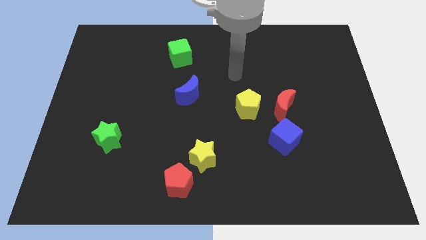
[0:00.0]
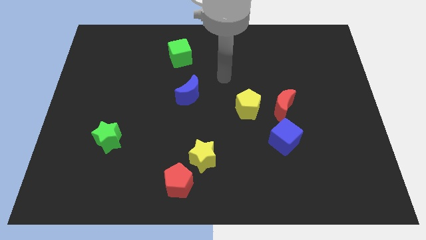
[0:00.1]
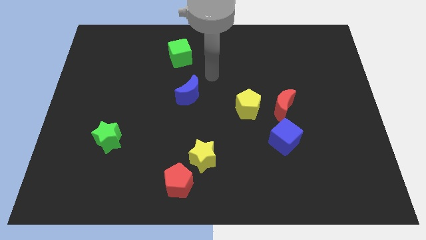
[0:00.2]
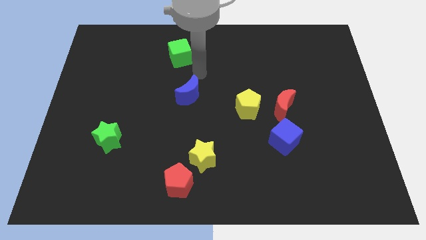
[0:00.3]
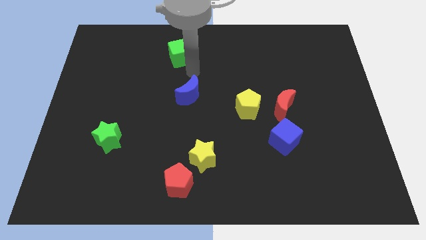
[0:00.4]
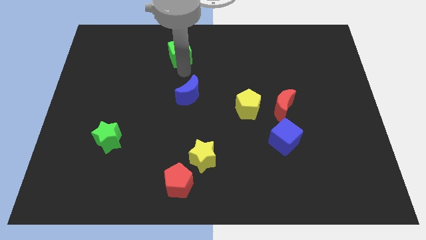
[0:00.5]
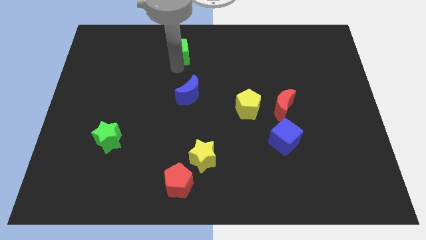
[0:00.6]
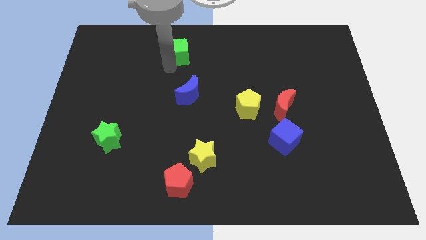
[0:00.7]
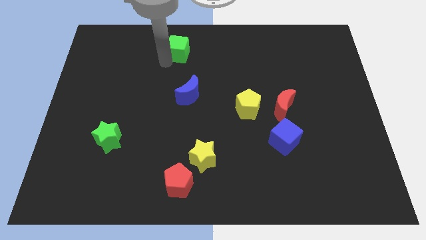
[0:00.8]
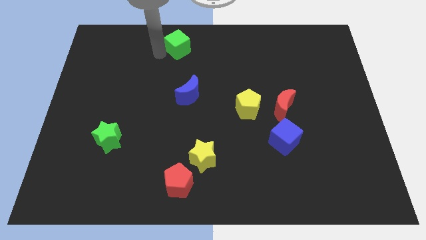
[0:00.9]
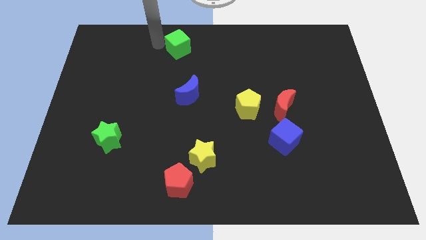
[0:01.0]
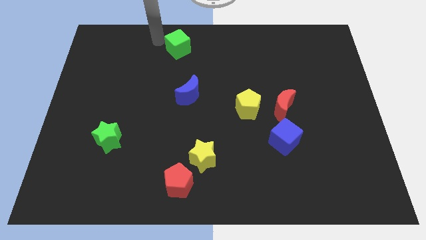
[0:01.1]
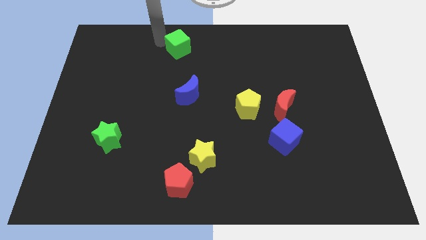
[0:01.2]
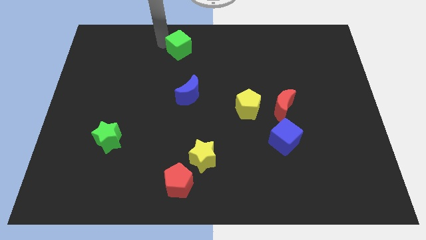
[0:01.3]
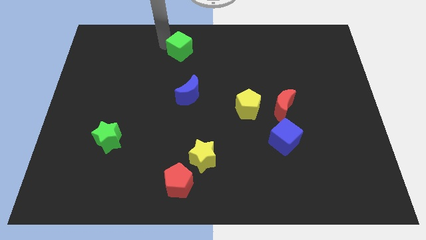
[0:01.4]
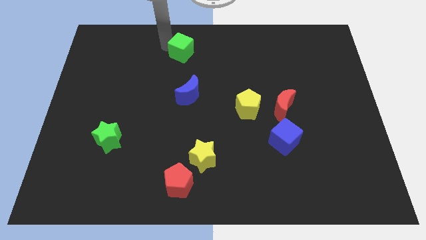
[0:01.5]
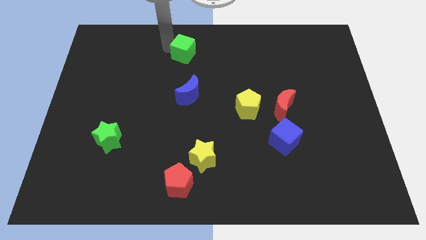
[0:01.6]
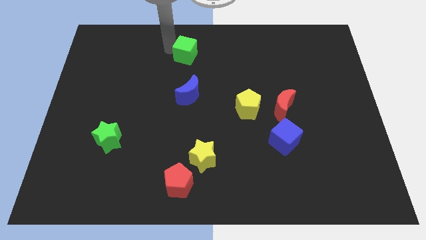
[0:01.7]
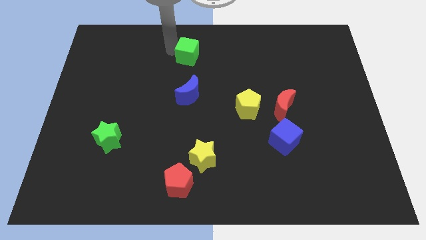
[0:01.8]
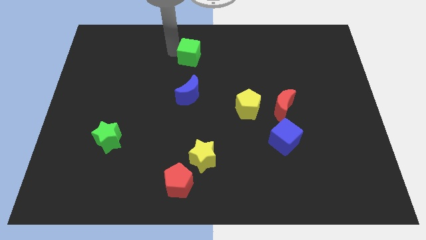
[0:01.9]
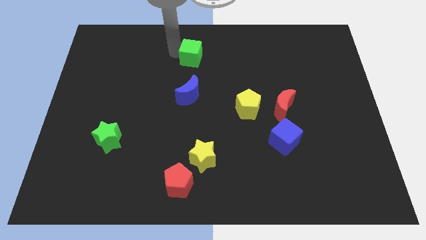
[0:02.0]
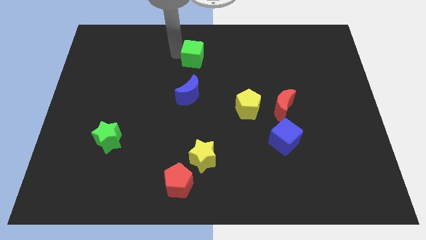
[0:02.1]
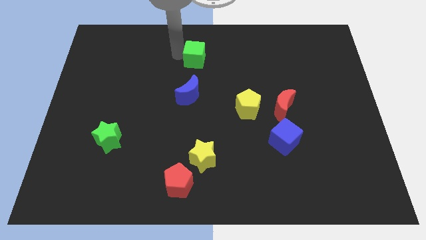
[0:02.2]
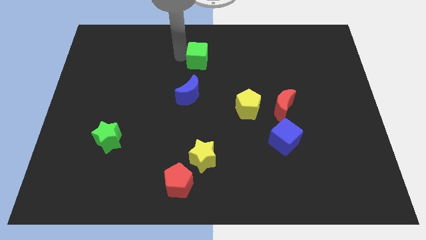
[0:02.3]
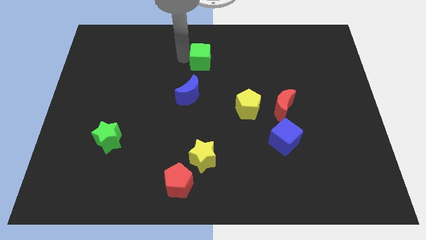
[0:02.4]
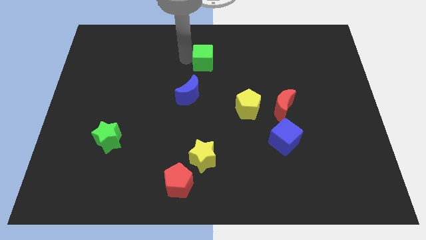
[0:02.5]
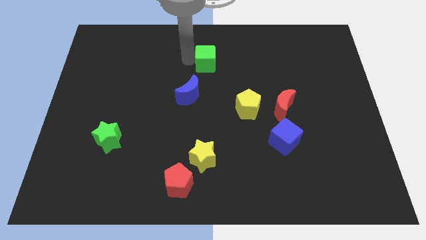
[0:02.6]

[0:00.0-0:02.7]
push the green cube a little right

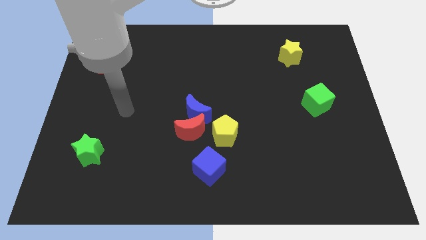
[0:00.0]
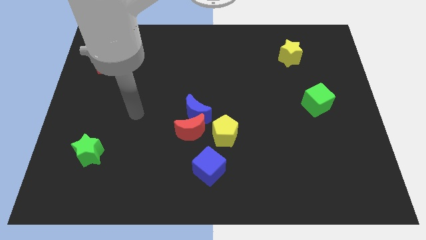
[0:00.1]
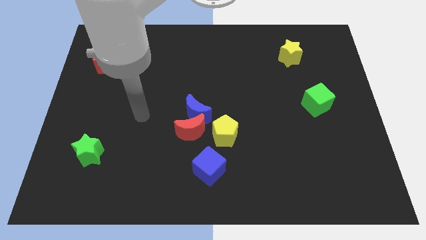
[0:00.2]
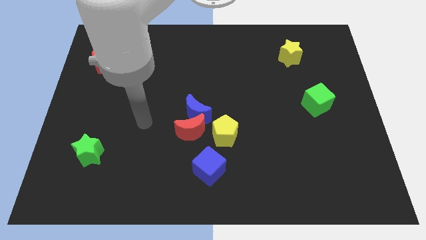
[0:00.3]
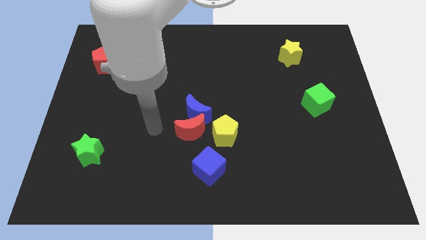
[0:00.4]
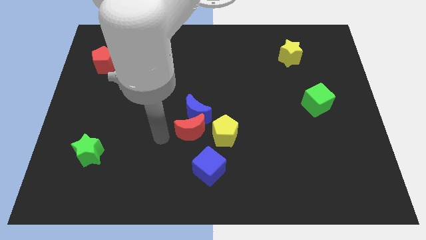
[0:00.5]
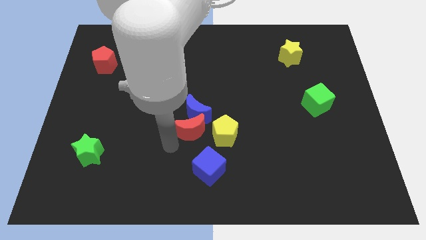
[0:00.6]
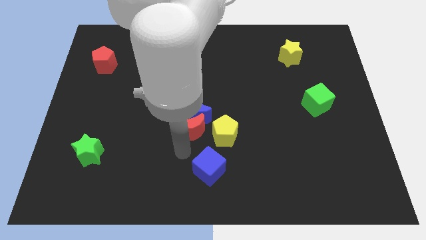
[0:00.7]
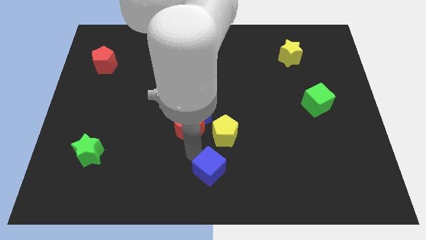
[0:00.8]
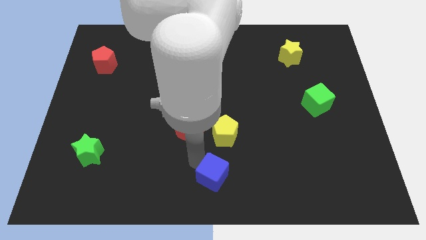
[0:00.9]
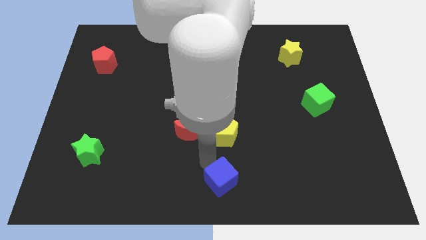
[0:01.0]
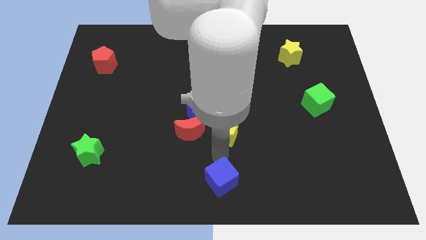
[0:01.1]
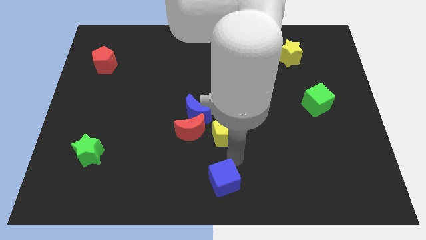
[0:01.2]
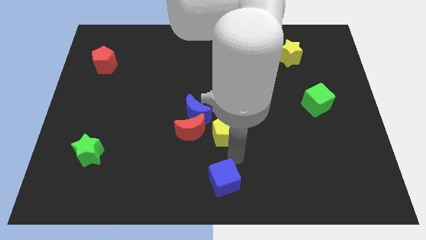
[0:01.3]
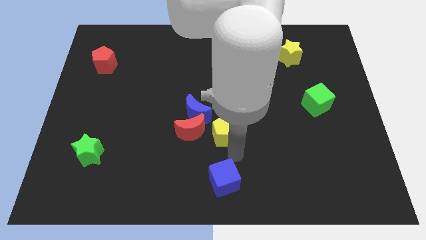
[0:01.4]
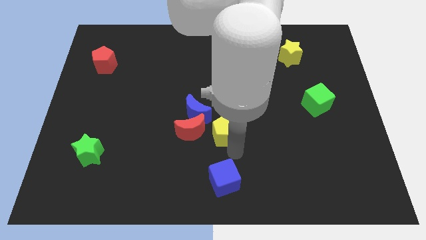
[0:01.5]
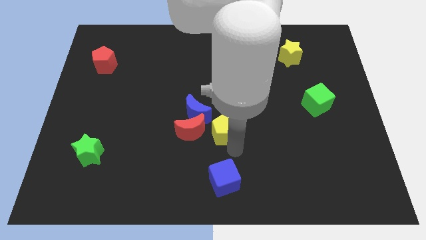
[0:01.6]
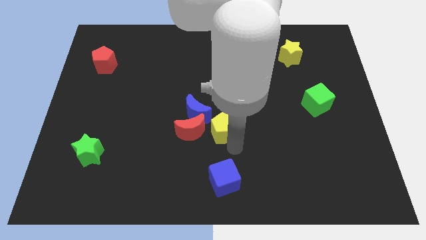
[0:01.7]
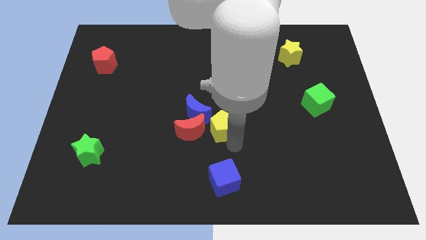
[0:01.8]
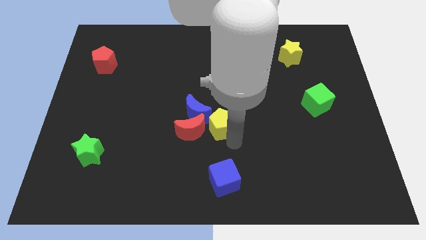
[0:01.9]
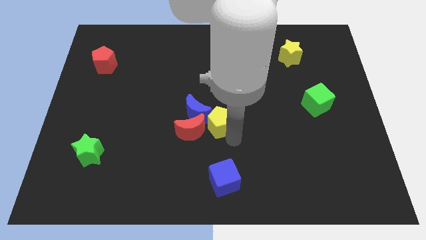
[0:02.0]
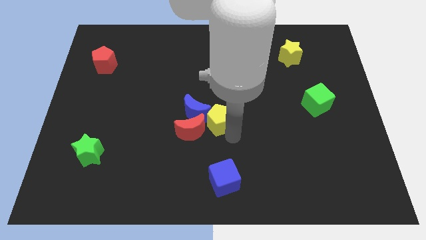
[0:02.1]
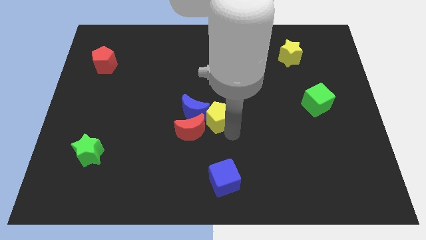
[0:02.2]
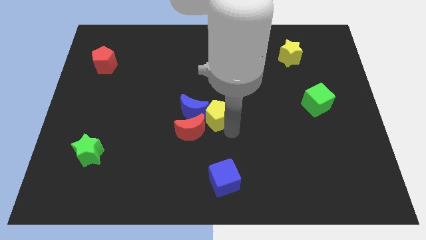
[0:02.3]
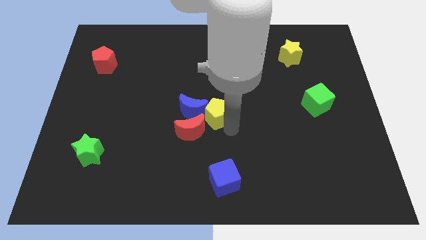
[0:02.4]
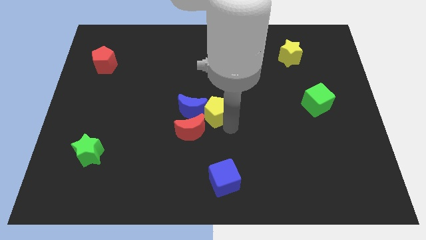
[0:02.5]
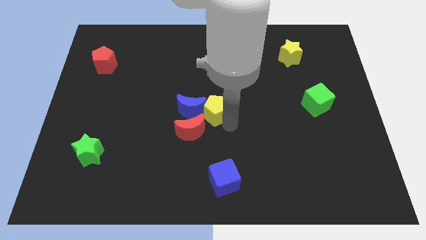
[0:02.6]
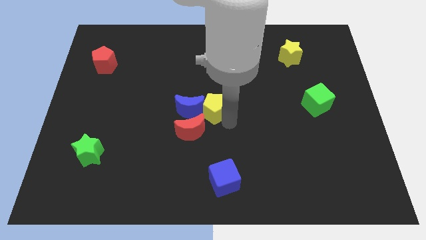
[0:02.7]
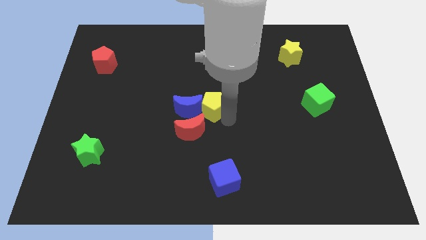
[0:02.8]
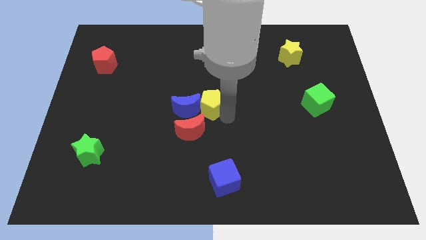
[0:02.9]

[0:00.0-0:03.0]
slide the yellow pentagon upwards and to the left somewhat

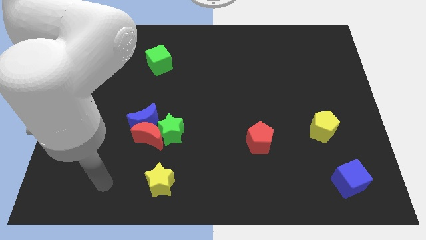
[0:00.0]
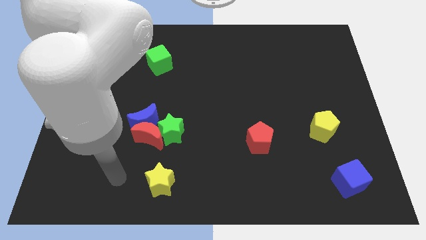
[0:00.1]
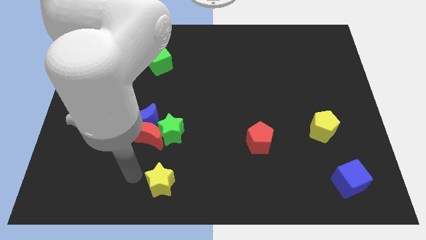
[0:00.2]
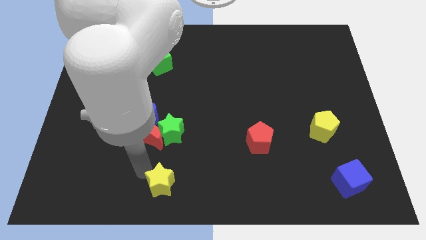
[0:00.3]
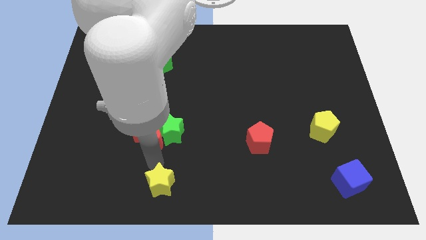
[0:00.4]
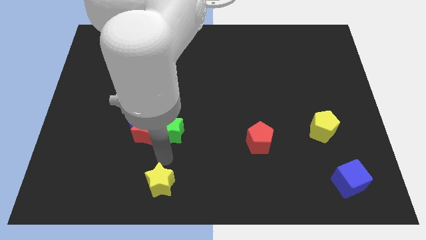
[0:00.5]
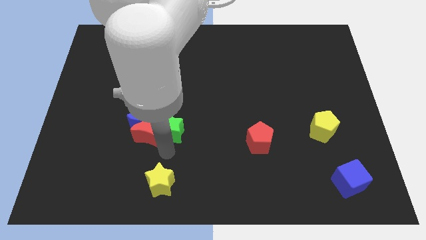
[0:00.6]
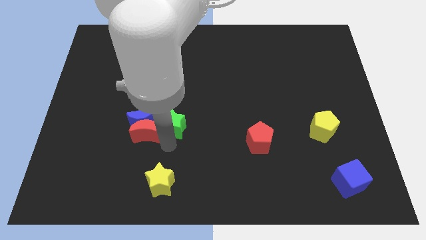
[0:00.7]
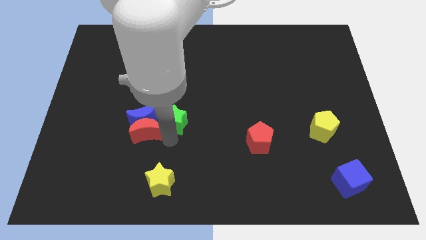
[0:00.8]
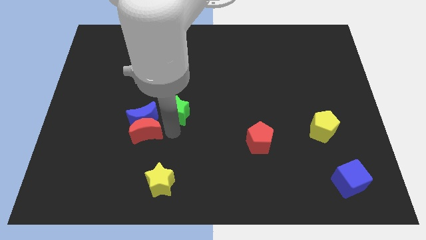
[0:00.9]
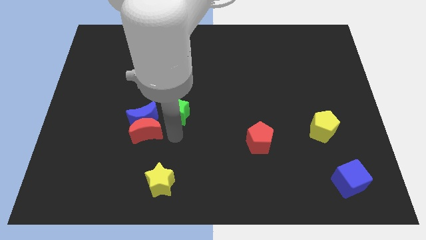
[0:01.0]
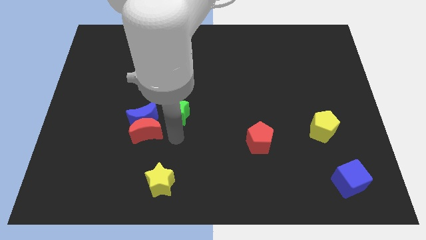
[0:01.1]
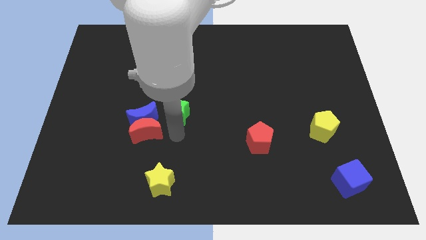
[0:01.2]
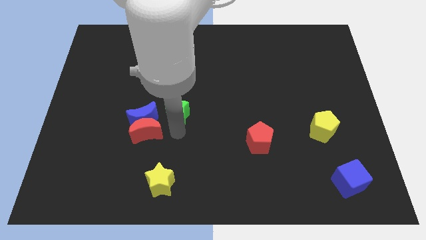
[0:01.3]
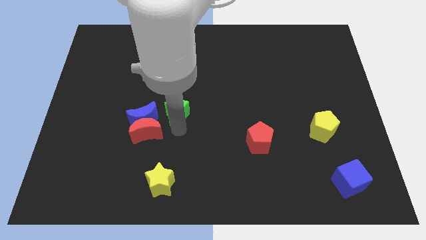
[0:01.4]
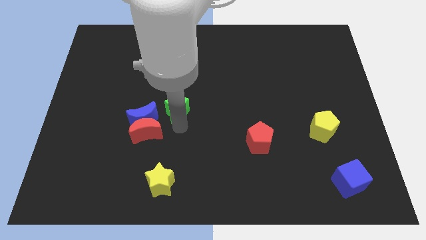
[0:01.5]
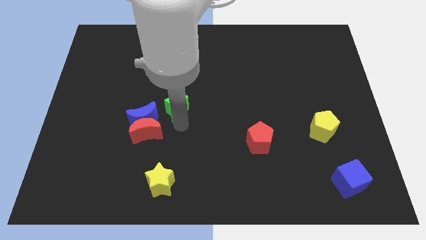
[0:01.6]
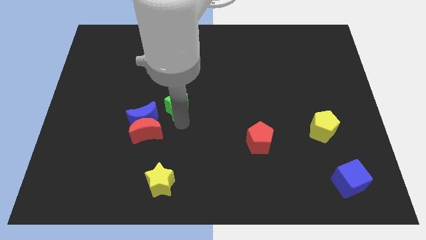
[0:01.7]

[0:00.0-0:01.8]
slightly slide the green star up

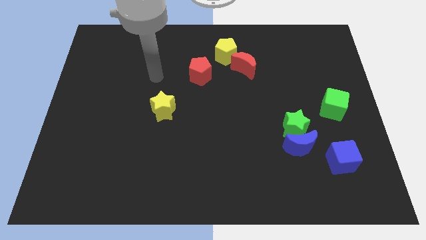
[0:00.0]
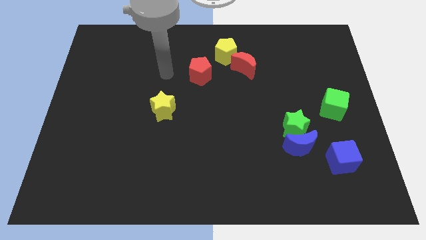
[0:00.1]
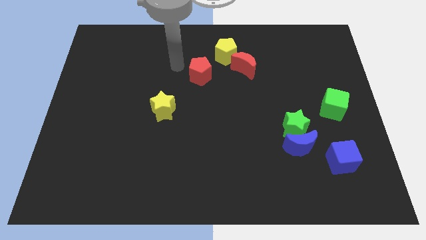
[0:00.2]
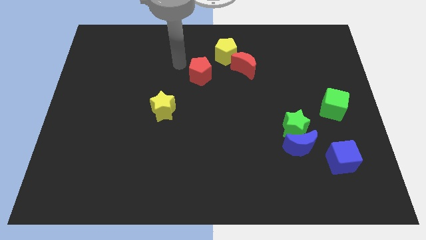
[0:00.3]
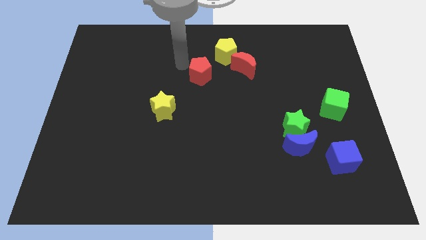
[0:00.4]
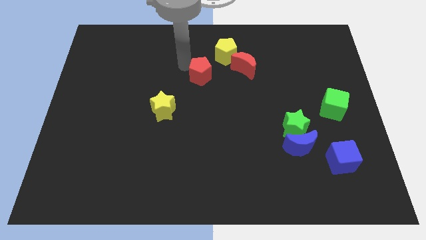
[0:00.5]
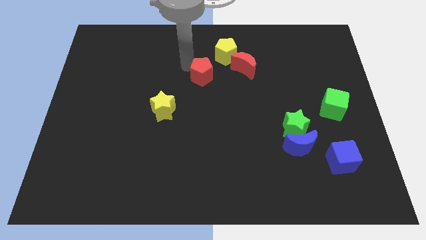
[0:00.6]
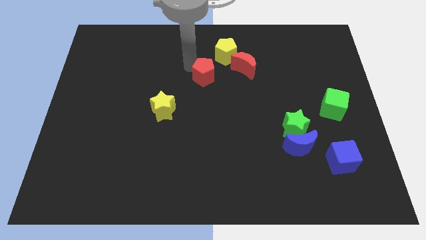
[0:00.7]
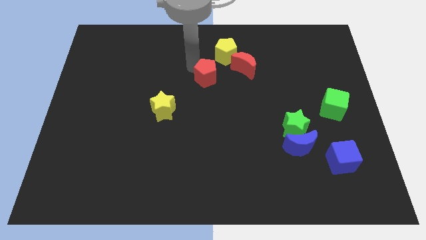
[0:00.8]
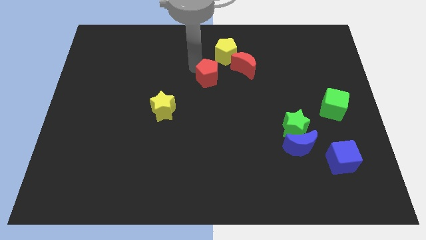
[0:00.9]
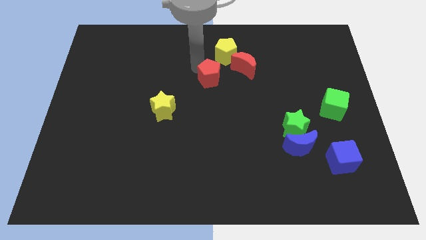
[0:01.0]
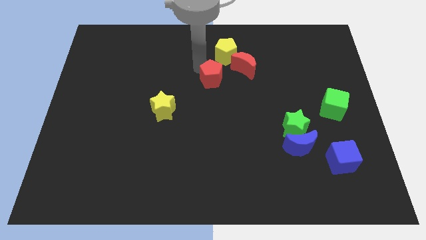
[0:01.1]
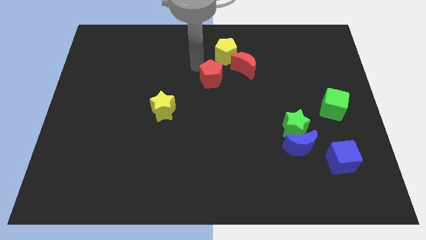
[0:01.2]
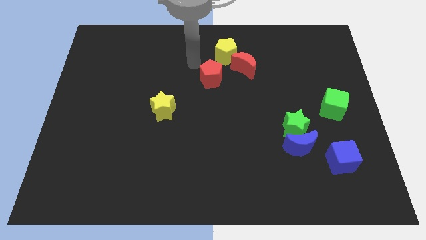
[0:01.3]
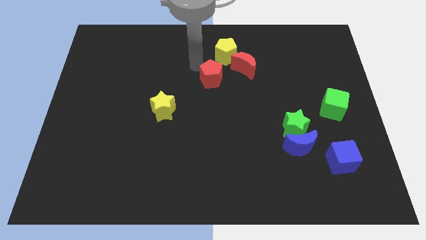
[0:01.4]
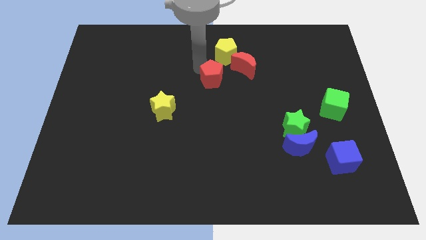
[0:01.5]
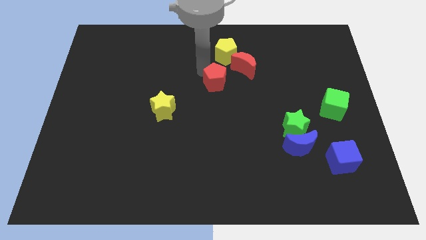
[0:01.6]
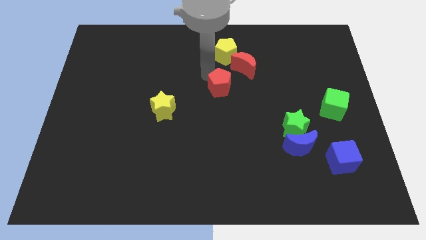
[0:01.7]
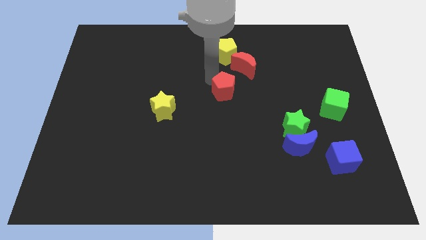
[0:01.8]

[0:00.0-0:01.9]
move the red pentagon diagonally down and to the right a bit
